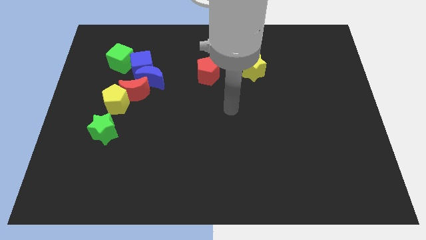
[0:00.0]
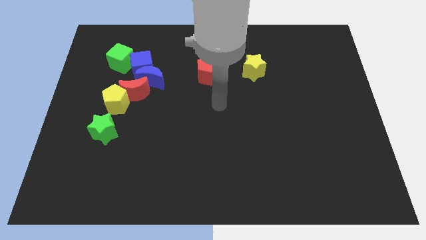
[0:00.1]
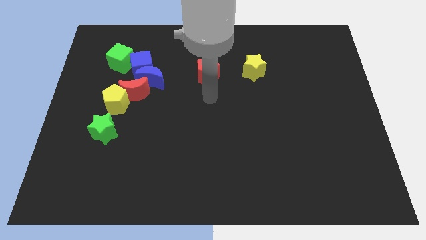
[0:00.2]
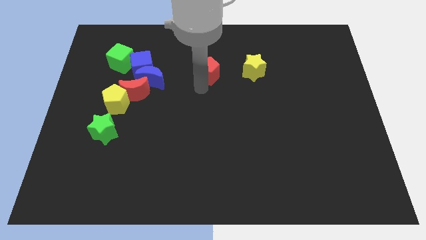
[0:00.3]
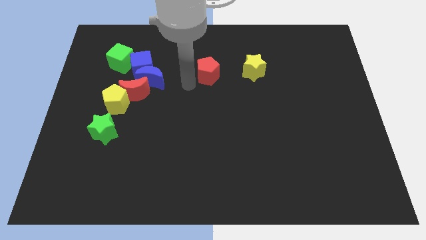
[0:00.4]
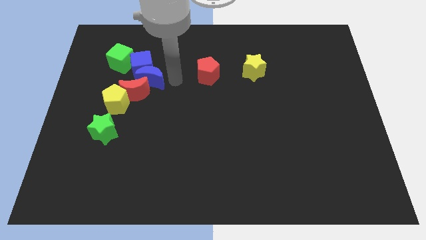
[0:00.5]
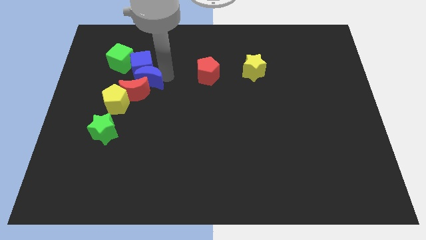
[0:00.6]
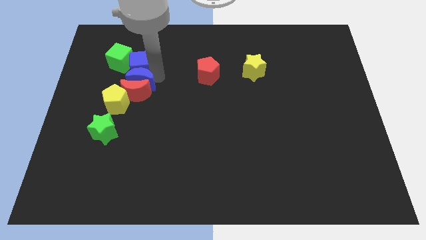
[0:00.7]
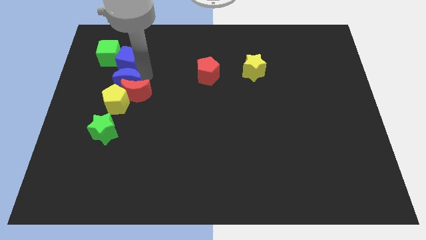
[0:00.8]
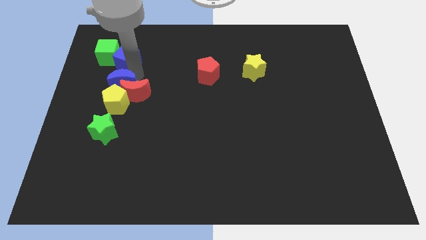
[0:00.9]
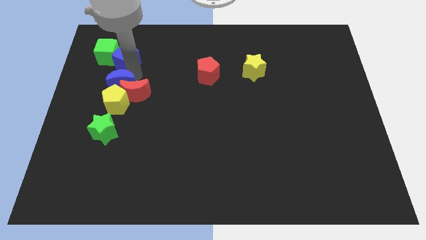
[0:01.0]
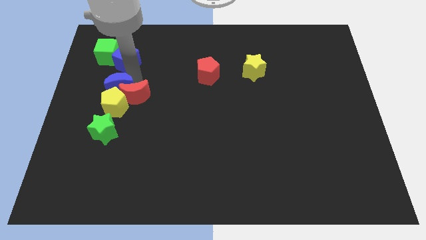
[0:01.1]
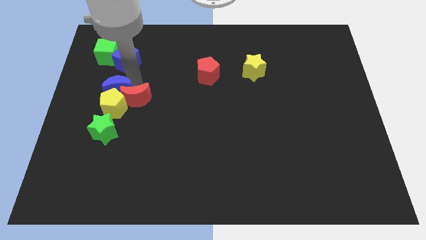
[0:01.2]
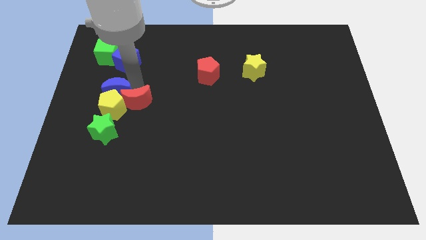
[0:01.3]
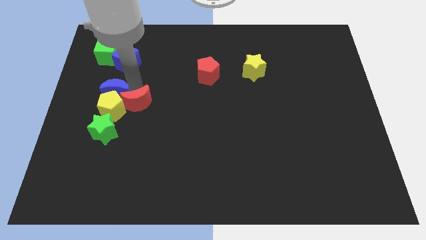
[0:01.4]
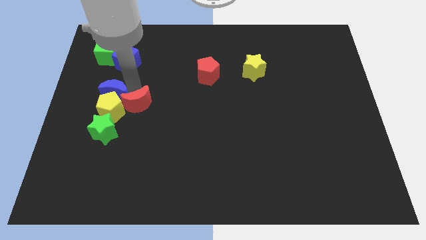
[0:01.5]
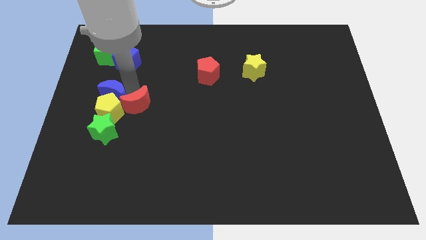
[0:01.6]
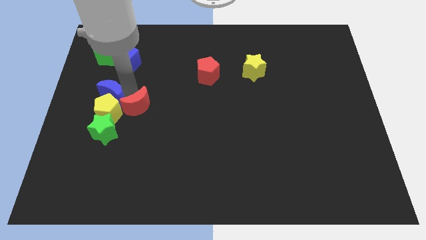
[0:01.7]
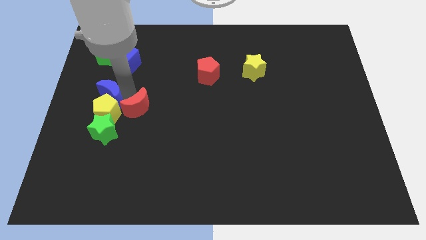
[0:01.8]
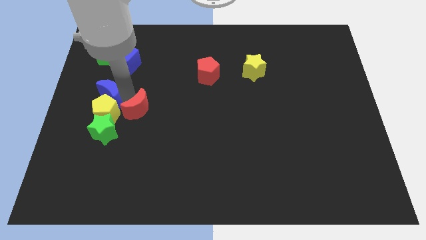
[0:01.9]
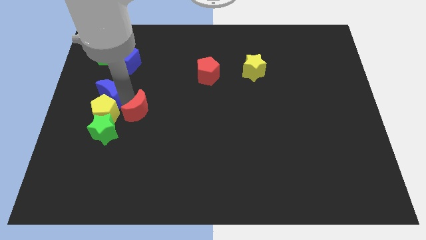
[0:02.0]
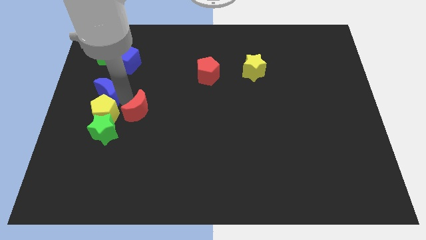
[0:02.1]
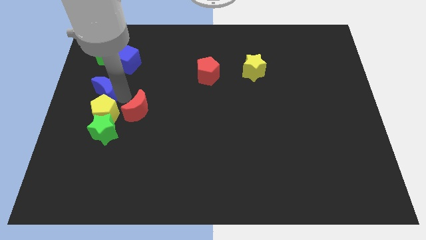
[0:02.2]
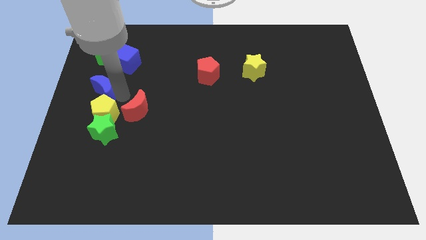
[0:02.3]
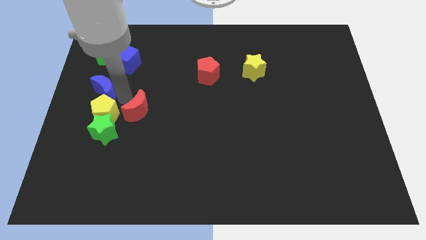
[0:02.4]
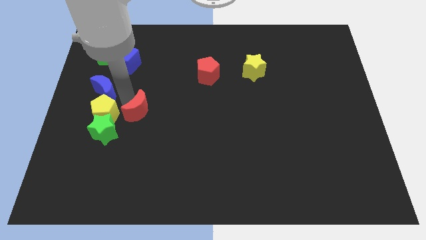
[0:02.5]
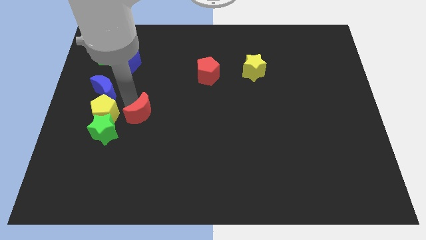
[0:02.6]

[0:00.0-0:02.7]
pull the red moon apart from the yellow pentagon, blue moon, and blue cube

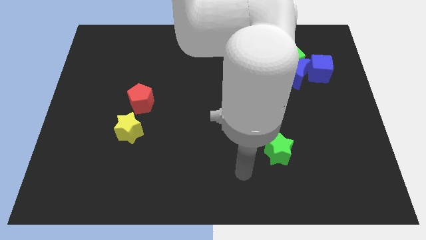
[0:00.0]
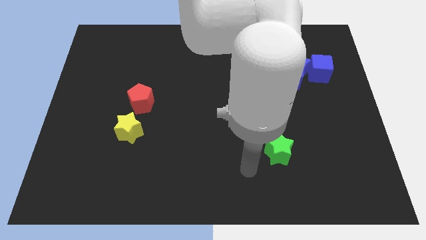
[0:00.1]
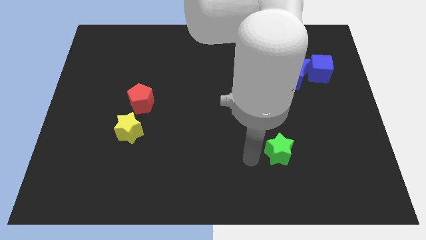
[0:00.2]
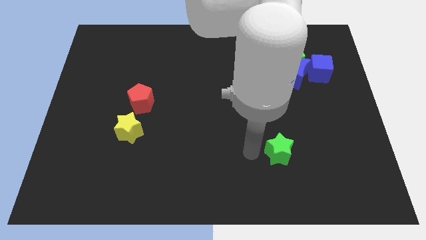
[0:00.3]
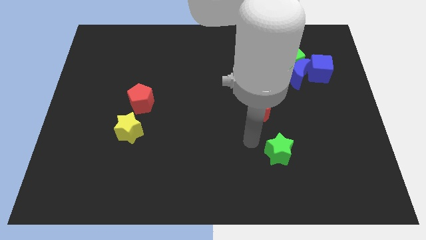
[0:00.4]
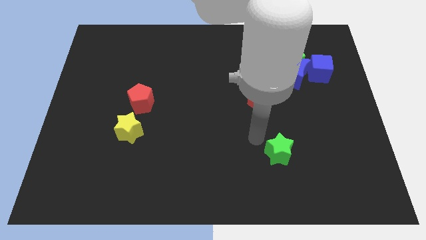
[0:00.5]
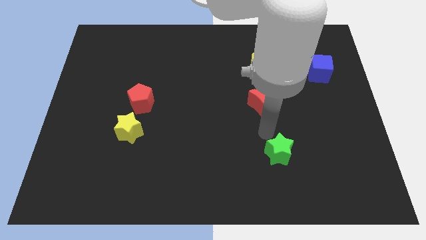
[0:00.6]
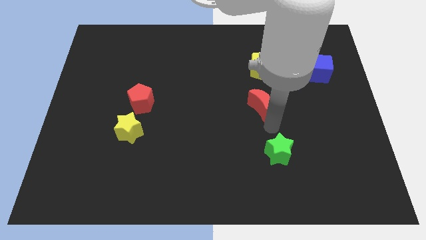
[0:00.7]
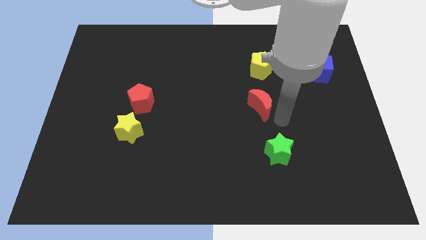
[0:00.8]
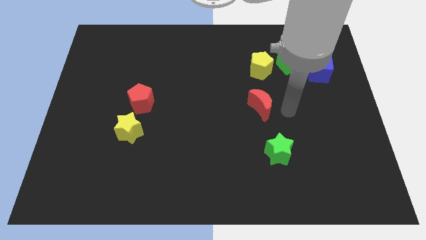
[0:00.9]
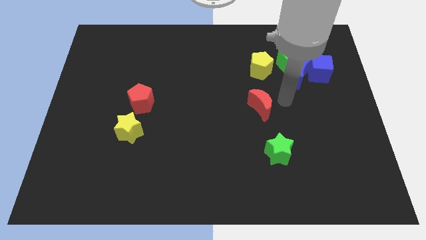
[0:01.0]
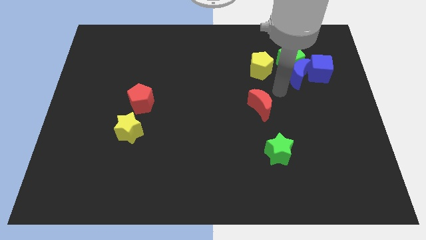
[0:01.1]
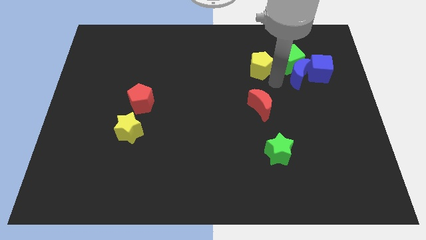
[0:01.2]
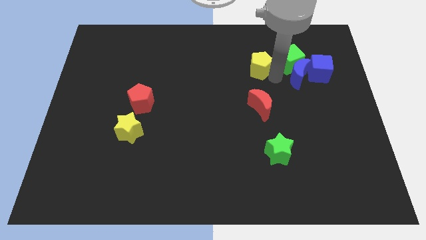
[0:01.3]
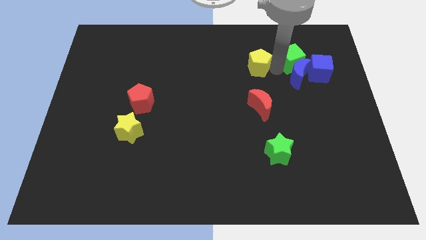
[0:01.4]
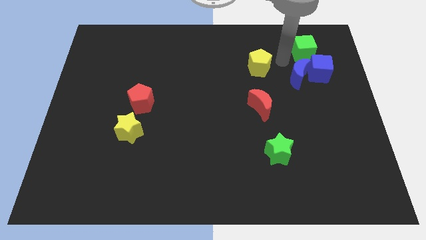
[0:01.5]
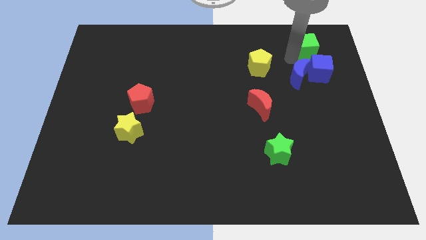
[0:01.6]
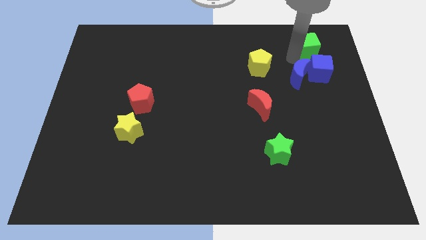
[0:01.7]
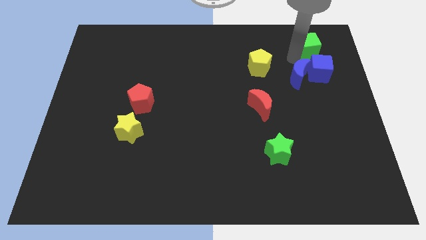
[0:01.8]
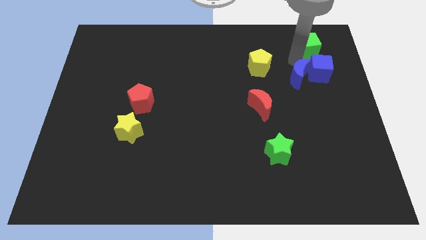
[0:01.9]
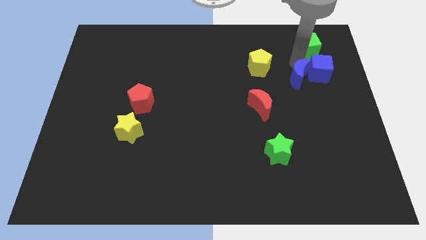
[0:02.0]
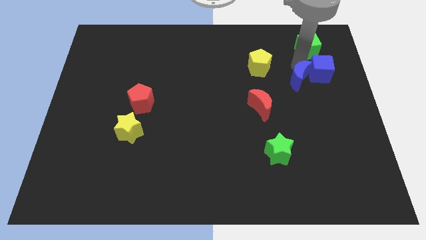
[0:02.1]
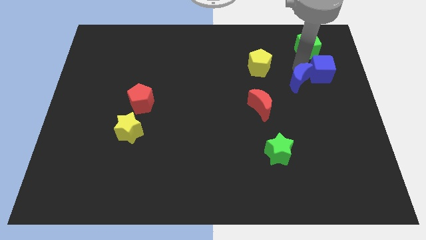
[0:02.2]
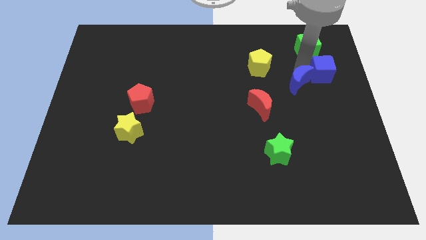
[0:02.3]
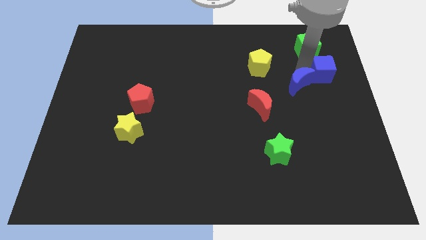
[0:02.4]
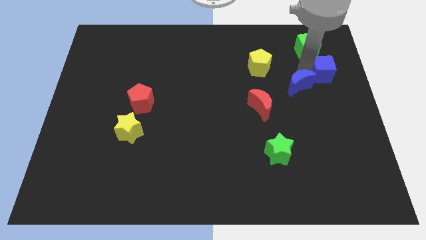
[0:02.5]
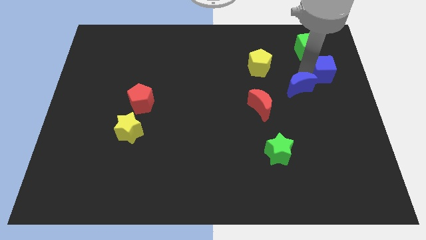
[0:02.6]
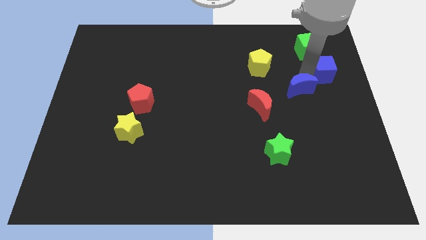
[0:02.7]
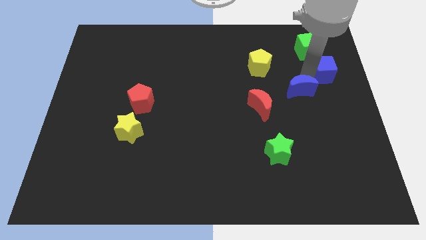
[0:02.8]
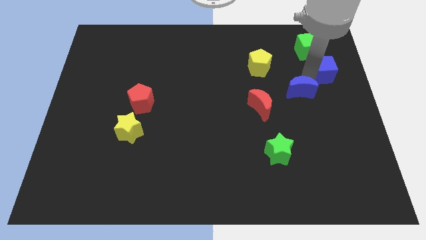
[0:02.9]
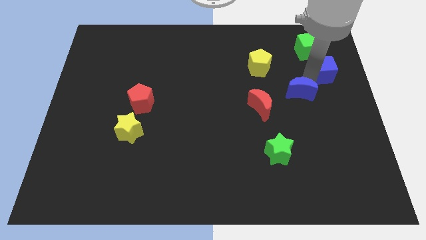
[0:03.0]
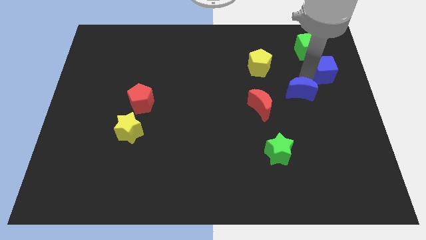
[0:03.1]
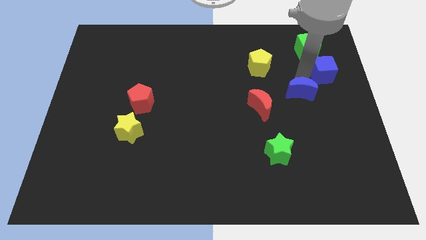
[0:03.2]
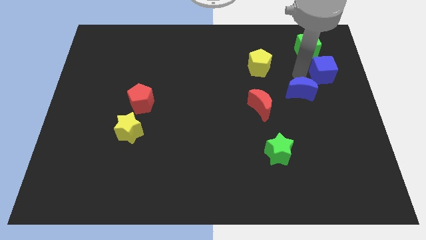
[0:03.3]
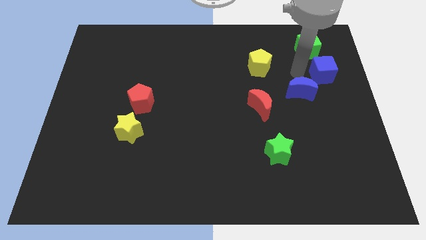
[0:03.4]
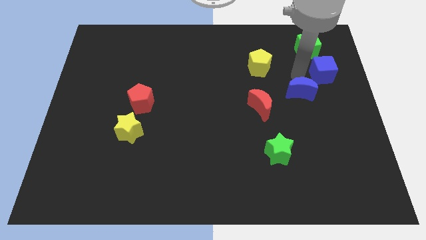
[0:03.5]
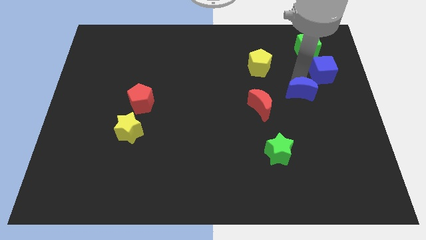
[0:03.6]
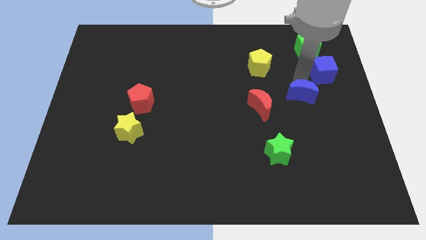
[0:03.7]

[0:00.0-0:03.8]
move the blue moon away from the clump

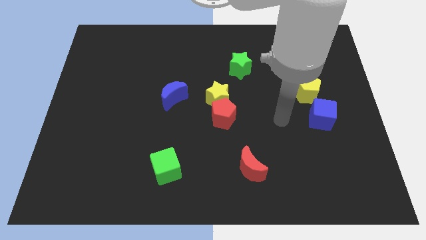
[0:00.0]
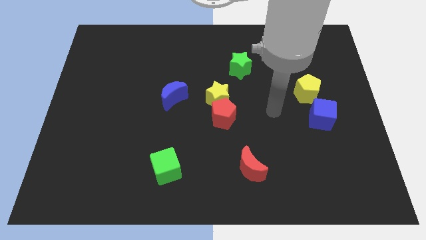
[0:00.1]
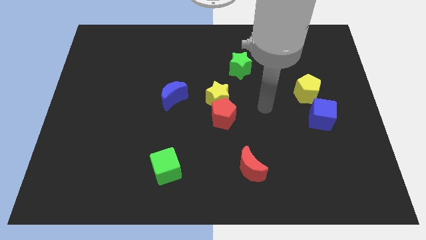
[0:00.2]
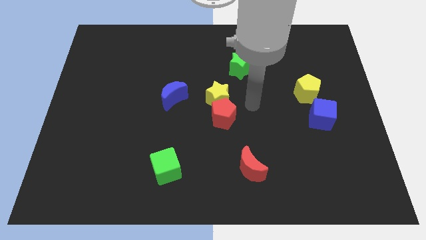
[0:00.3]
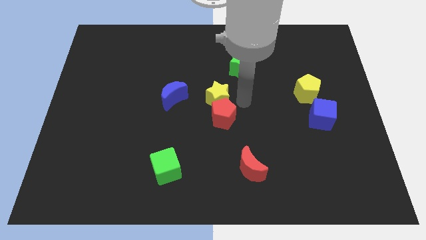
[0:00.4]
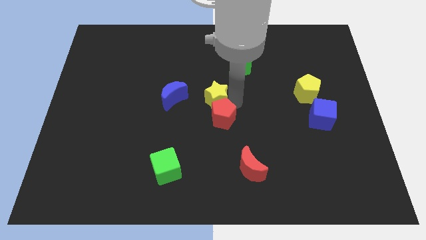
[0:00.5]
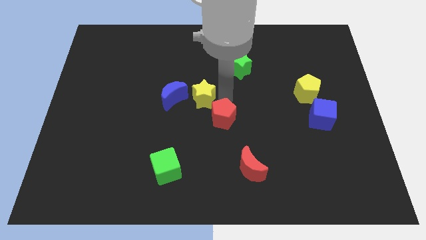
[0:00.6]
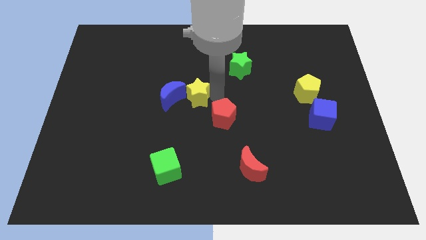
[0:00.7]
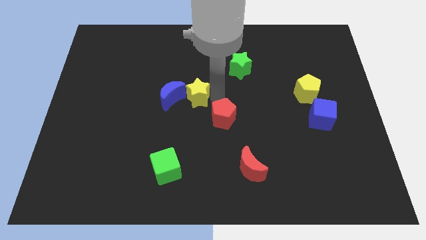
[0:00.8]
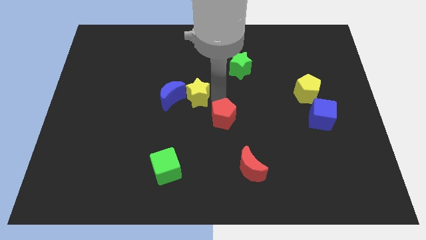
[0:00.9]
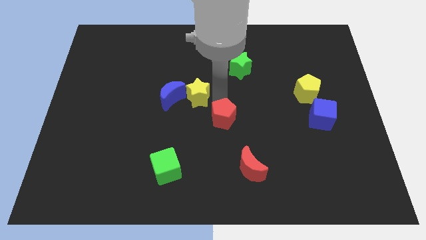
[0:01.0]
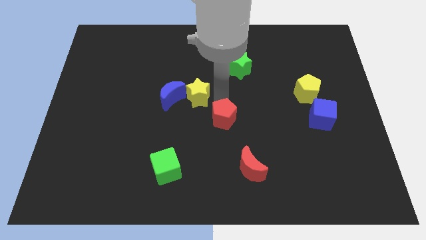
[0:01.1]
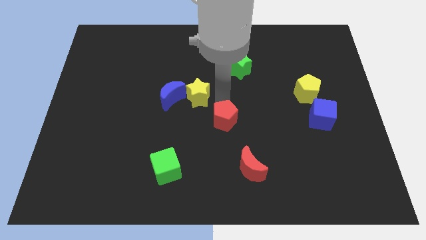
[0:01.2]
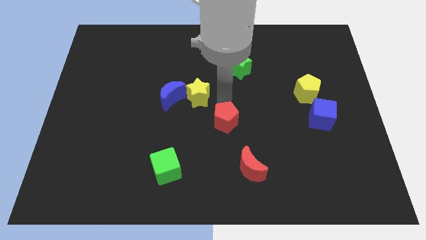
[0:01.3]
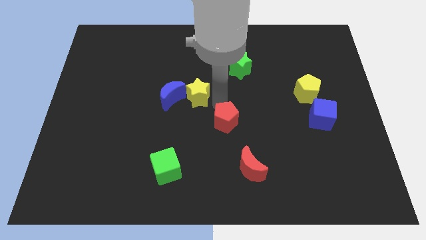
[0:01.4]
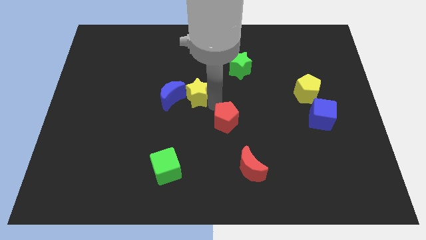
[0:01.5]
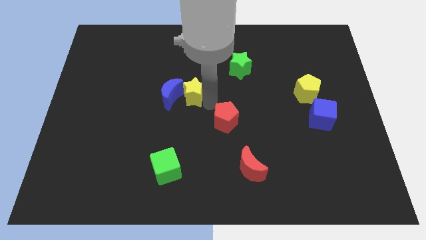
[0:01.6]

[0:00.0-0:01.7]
move the red pentagon away from the yellow star

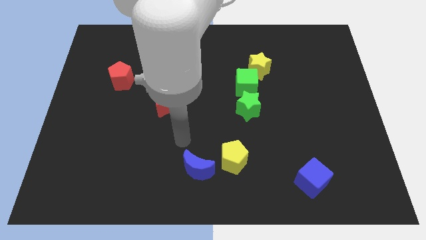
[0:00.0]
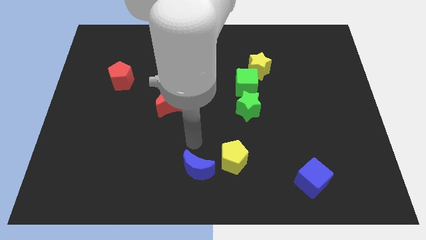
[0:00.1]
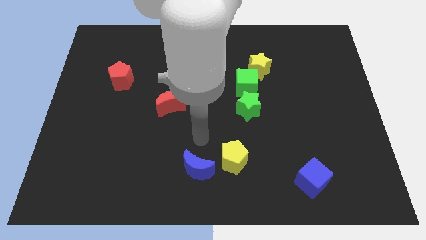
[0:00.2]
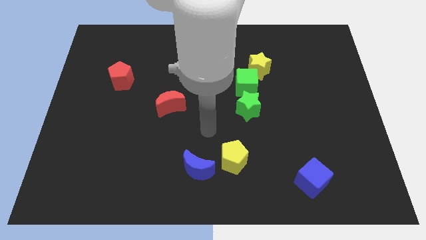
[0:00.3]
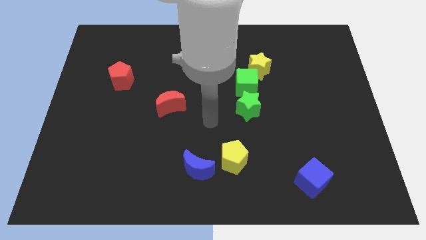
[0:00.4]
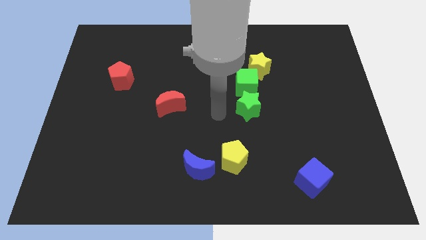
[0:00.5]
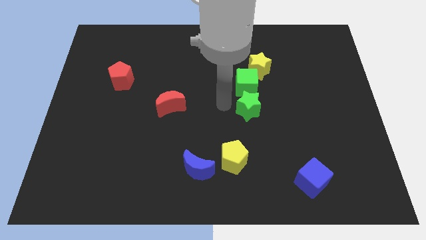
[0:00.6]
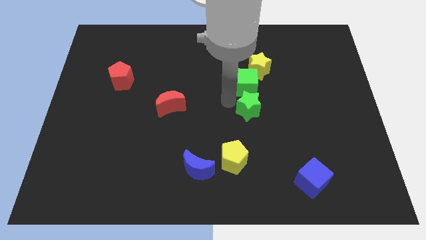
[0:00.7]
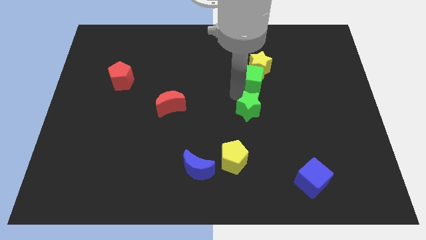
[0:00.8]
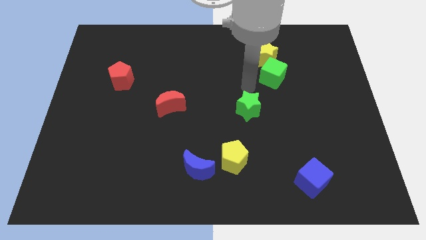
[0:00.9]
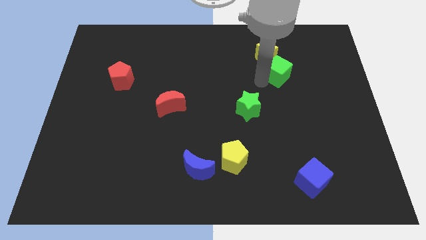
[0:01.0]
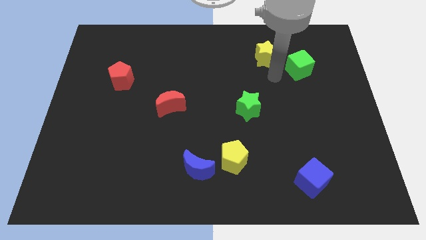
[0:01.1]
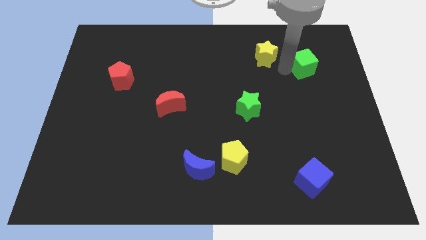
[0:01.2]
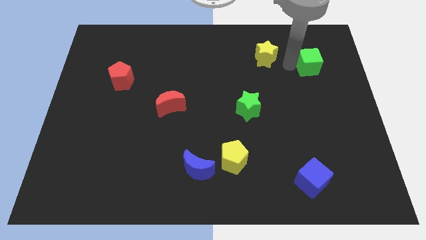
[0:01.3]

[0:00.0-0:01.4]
pull the yellow star apart from the green cube
